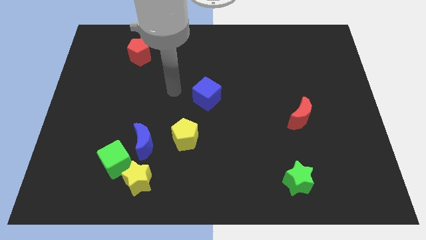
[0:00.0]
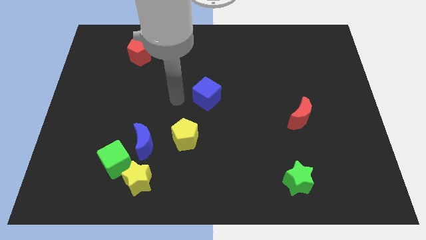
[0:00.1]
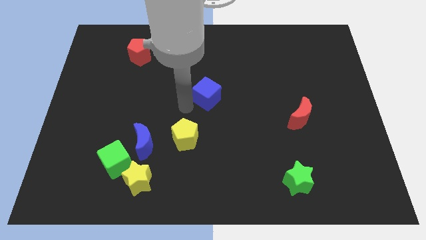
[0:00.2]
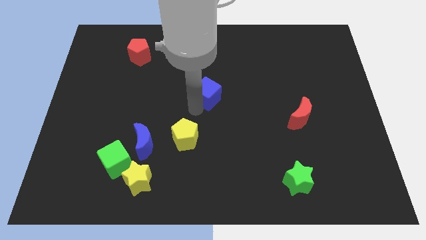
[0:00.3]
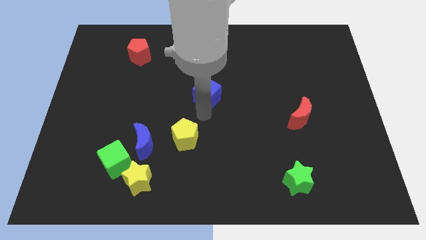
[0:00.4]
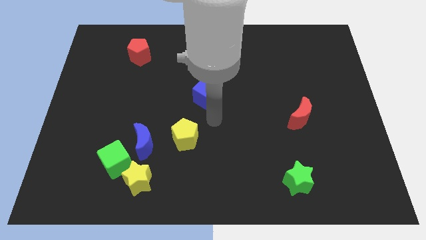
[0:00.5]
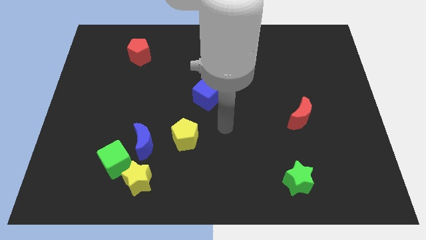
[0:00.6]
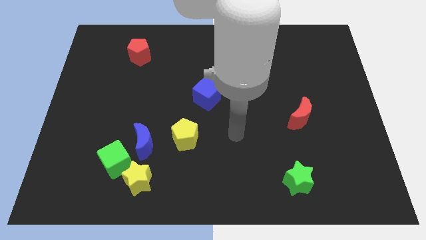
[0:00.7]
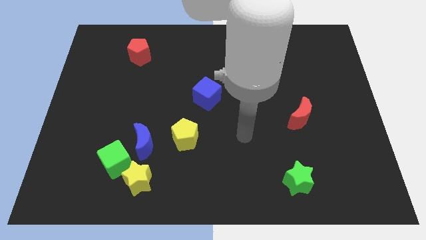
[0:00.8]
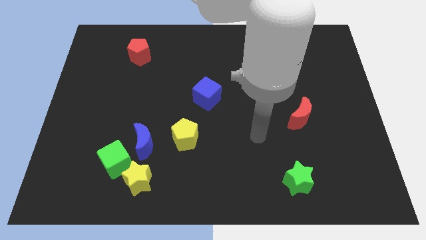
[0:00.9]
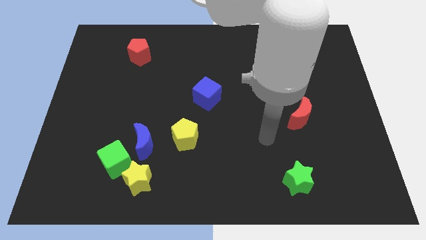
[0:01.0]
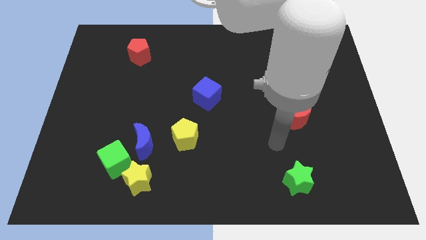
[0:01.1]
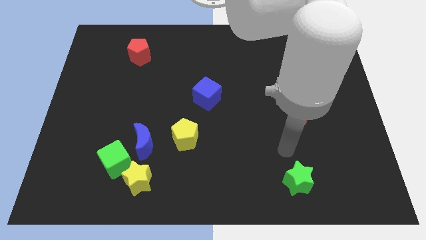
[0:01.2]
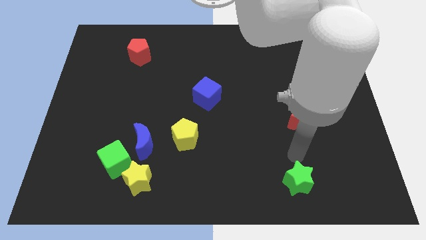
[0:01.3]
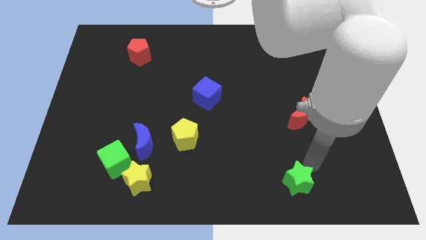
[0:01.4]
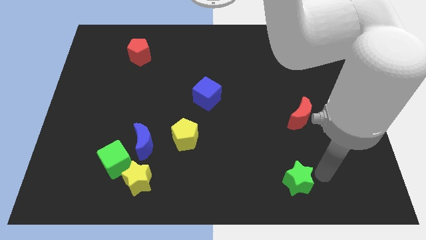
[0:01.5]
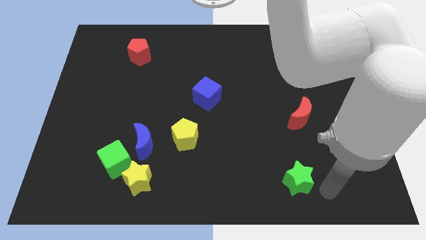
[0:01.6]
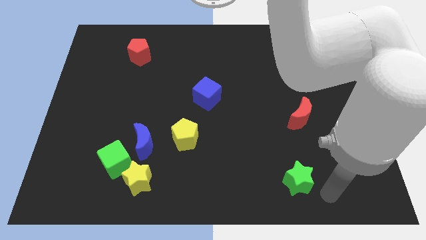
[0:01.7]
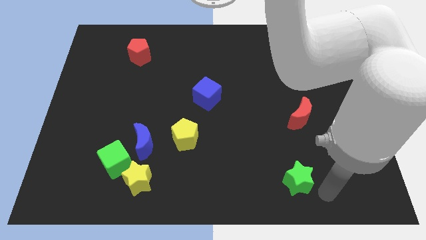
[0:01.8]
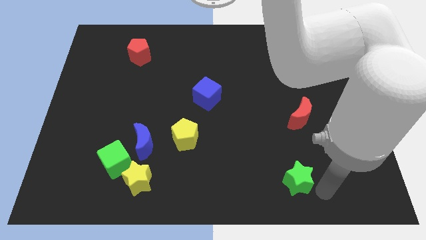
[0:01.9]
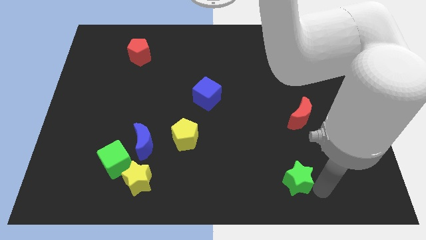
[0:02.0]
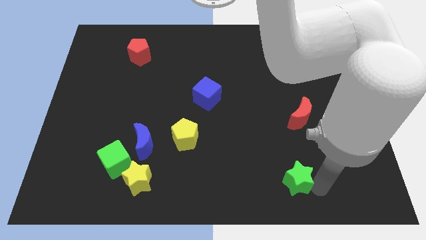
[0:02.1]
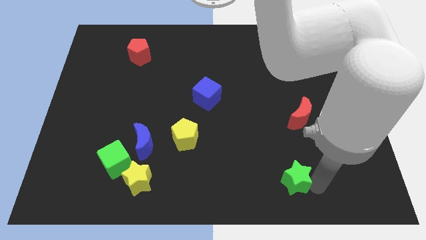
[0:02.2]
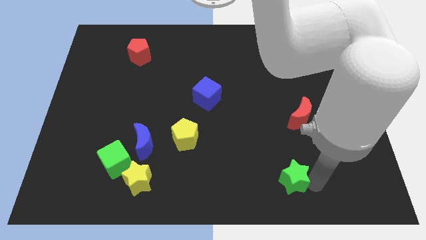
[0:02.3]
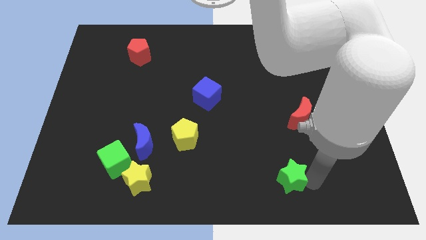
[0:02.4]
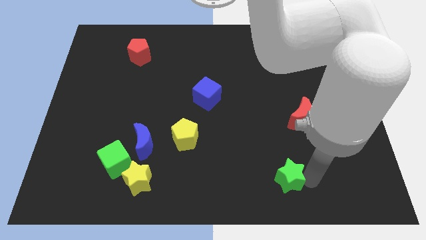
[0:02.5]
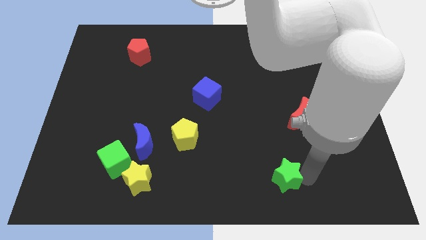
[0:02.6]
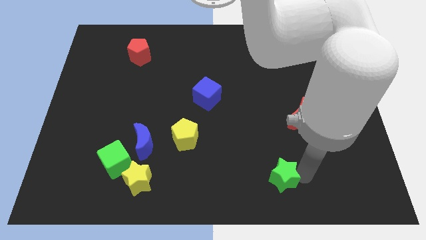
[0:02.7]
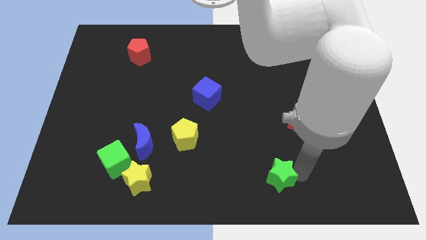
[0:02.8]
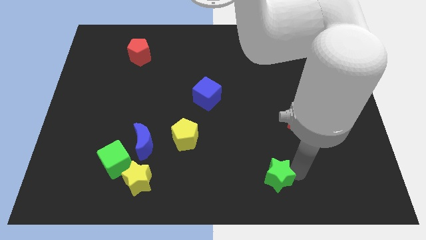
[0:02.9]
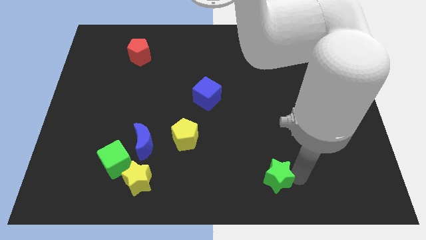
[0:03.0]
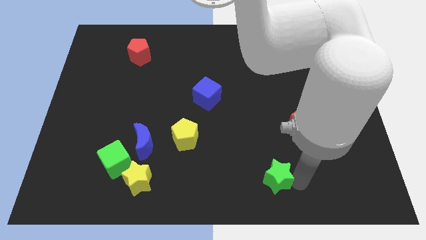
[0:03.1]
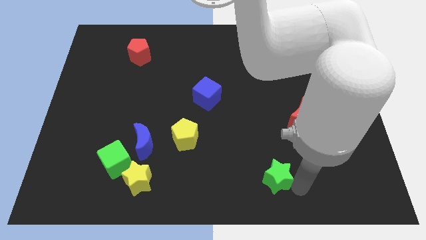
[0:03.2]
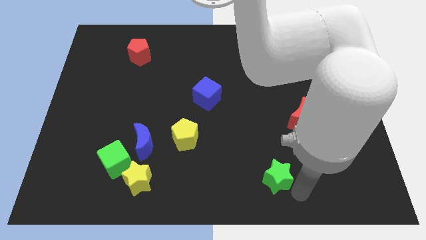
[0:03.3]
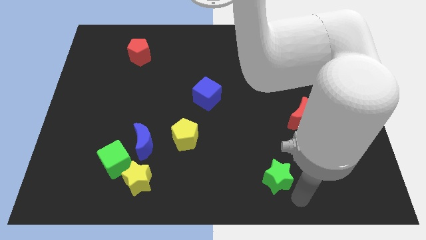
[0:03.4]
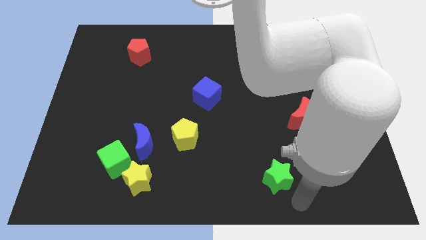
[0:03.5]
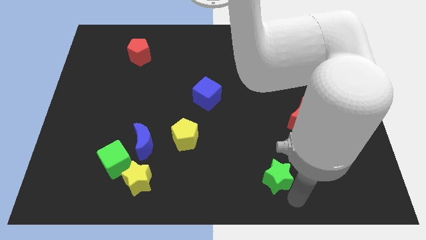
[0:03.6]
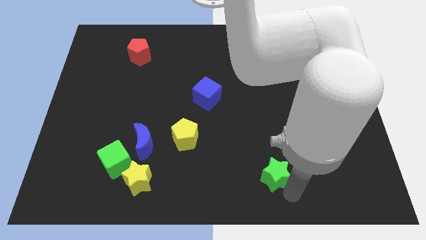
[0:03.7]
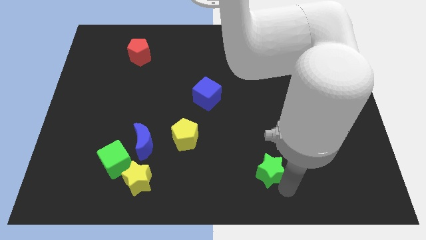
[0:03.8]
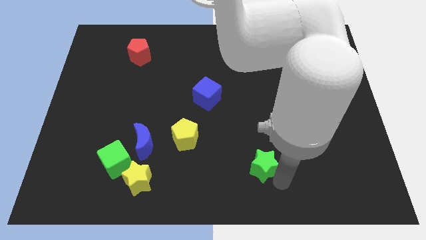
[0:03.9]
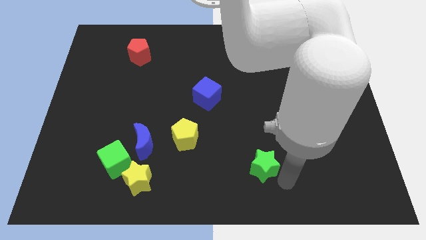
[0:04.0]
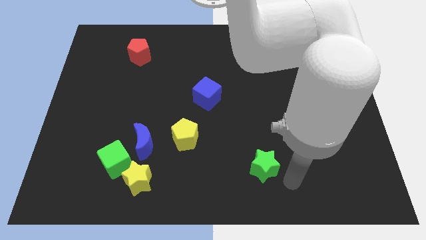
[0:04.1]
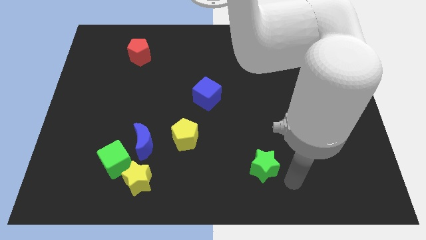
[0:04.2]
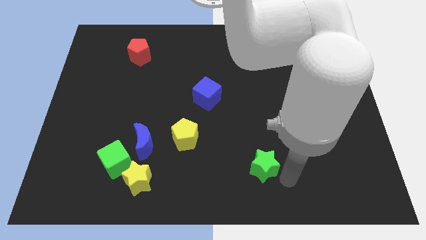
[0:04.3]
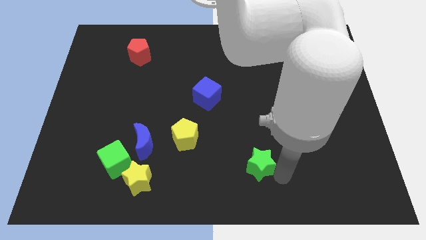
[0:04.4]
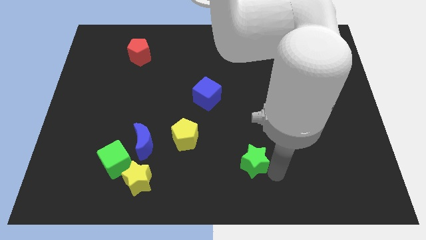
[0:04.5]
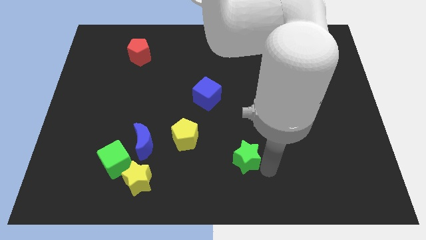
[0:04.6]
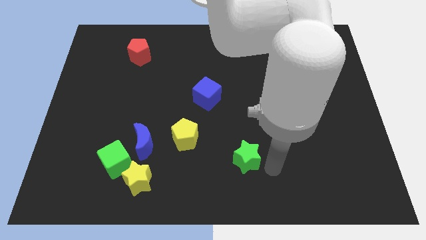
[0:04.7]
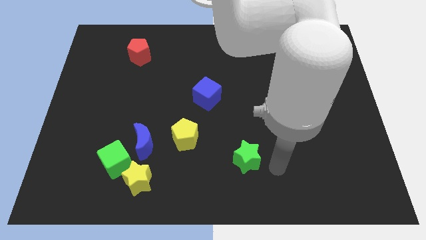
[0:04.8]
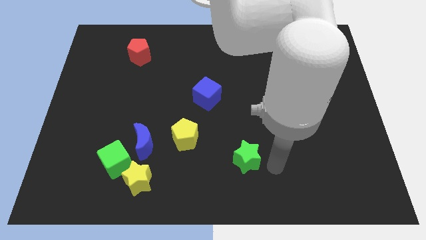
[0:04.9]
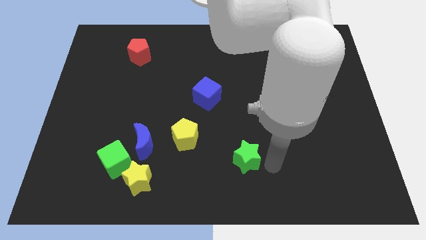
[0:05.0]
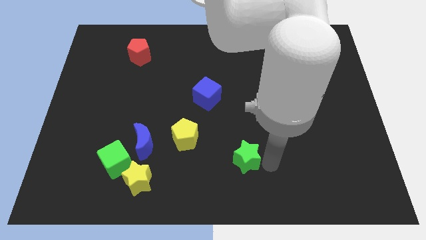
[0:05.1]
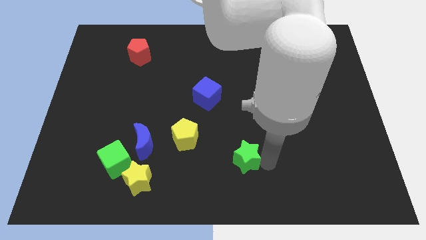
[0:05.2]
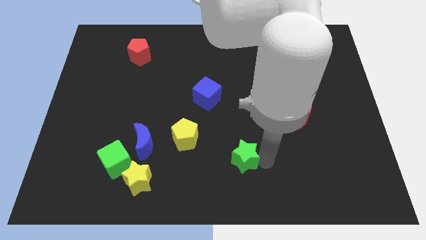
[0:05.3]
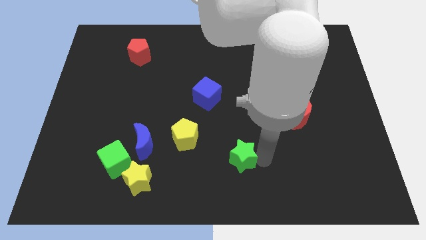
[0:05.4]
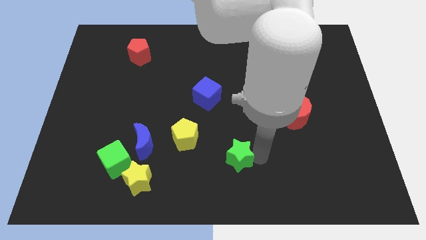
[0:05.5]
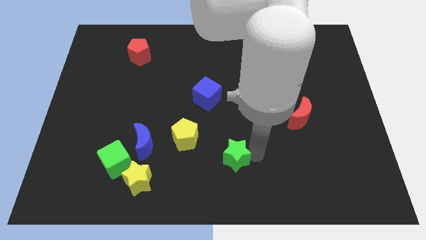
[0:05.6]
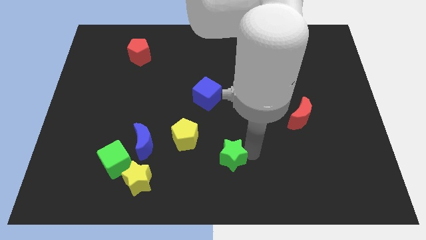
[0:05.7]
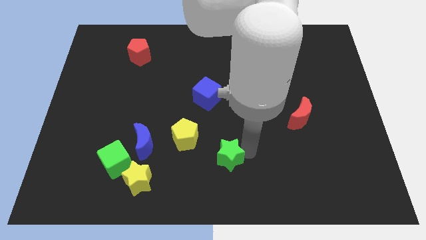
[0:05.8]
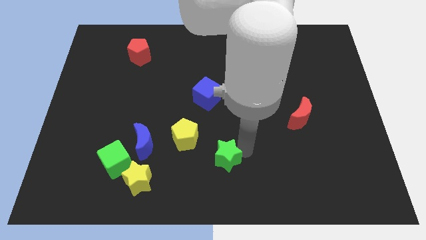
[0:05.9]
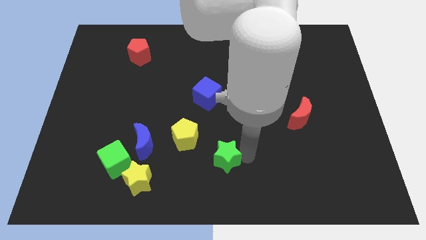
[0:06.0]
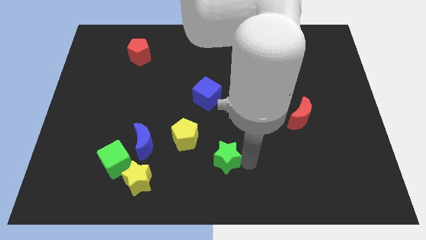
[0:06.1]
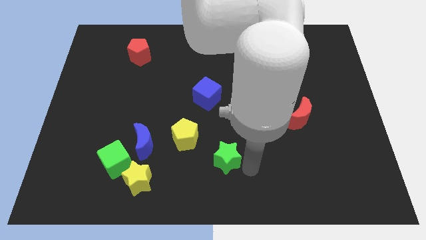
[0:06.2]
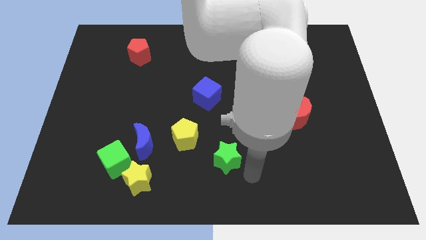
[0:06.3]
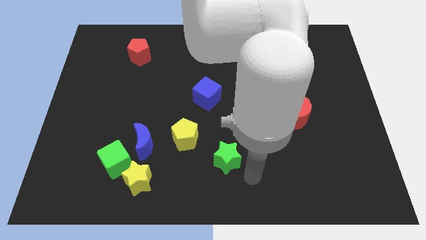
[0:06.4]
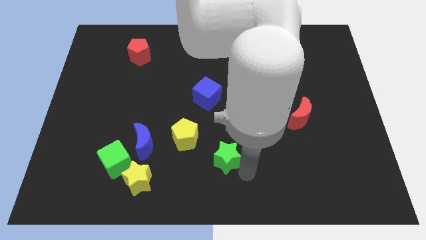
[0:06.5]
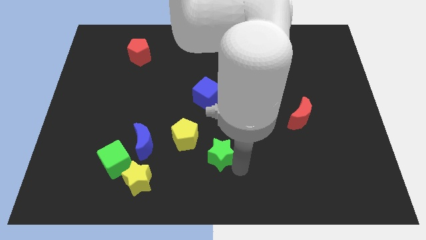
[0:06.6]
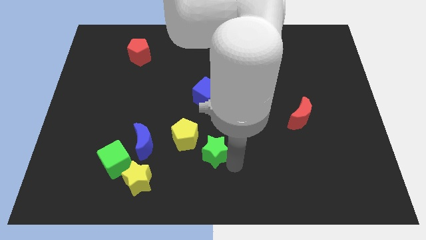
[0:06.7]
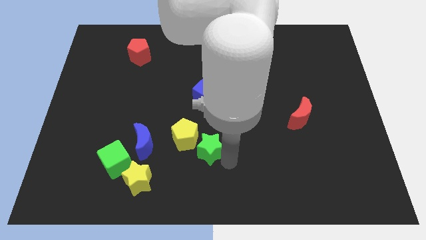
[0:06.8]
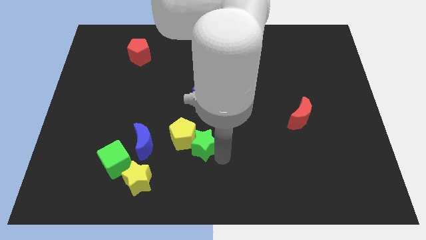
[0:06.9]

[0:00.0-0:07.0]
move the green star next to the yellow pentagon
